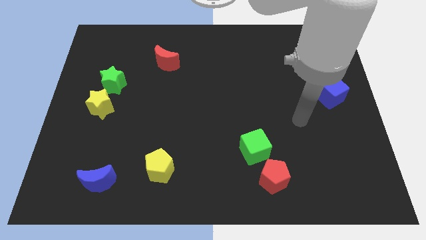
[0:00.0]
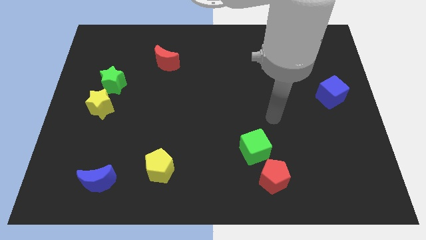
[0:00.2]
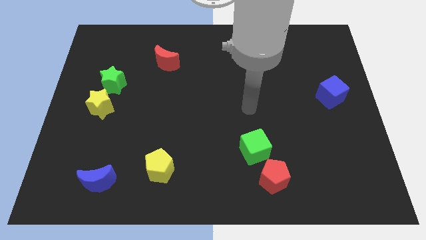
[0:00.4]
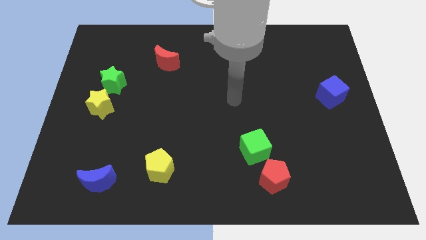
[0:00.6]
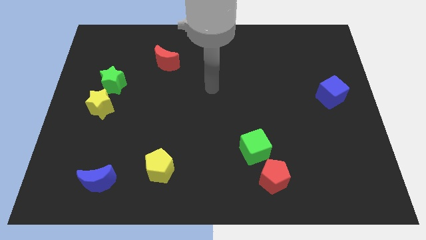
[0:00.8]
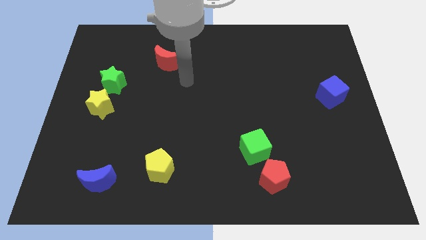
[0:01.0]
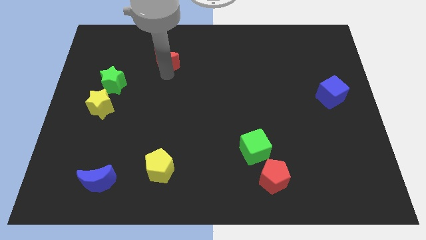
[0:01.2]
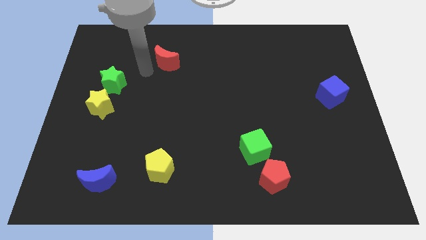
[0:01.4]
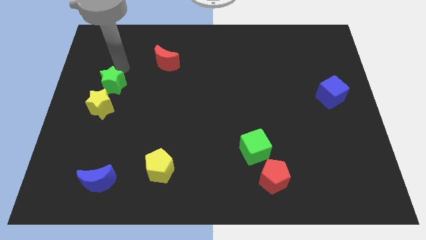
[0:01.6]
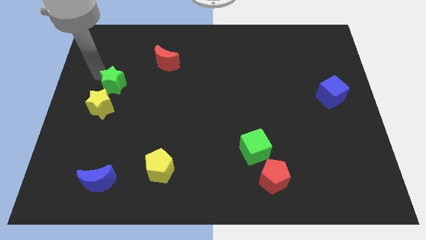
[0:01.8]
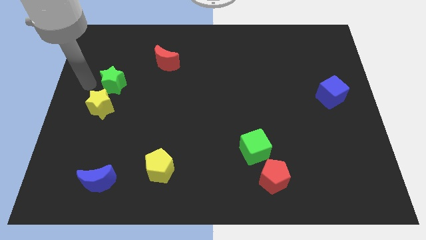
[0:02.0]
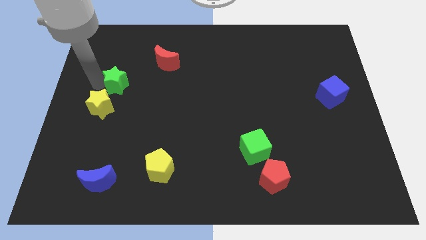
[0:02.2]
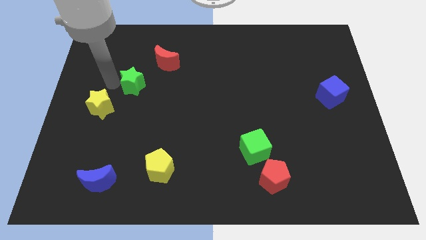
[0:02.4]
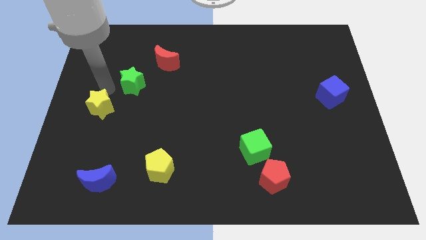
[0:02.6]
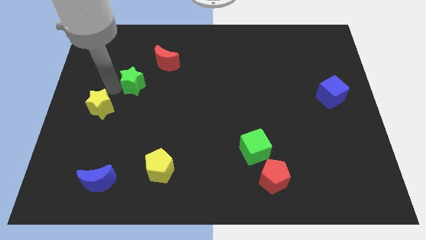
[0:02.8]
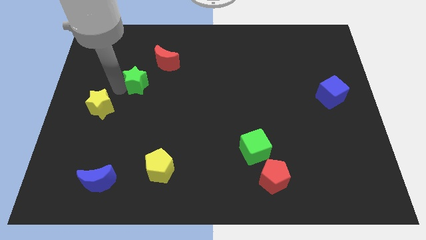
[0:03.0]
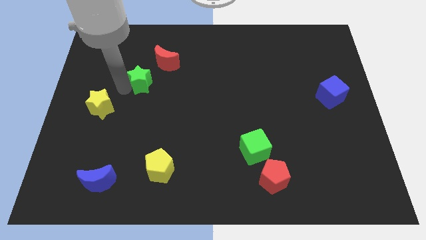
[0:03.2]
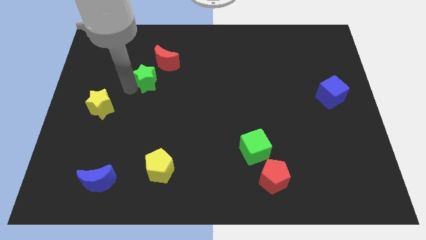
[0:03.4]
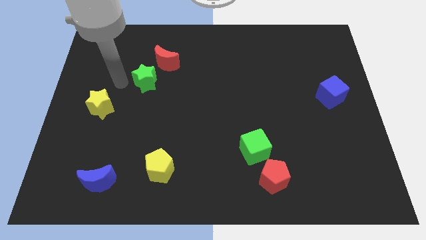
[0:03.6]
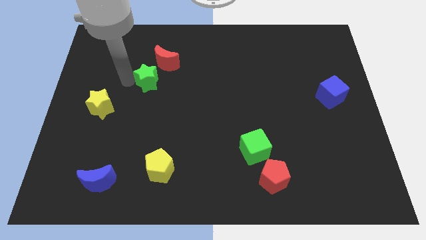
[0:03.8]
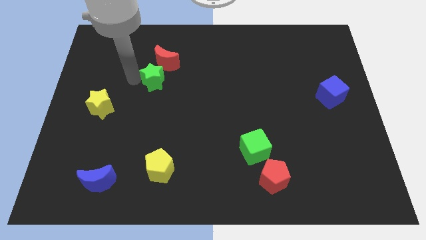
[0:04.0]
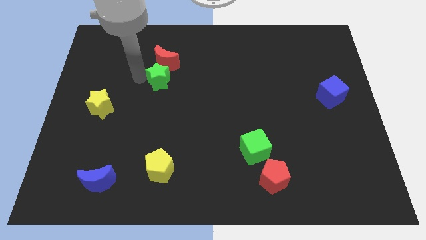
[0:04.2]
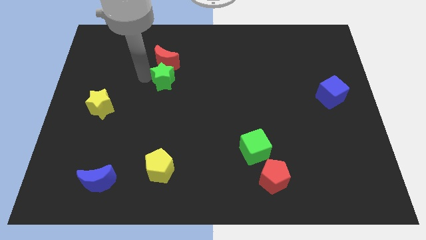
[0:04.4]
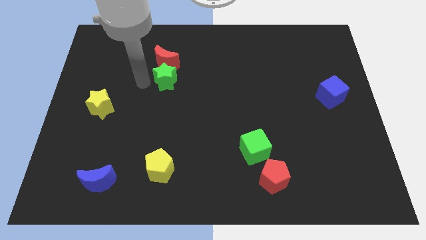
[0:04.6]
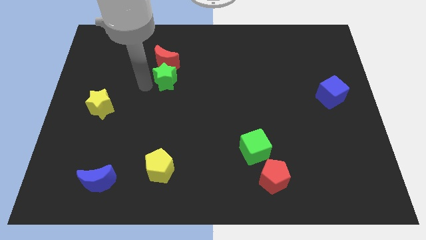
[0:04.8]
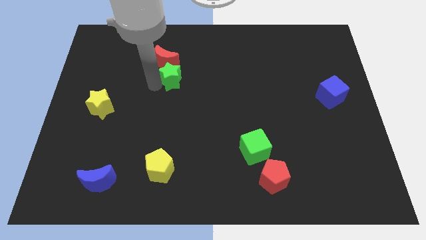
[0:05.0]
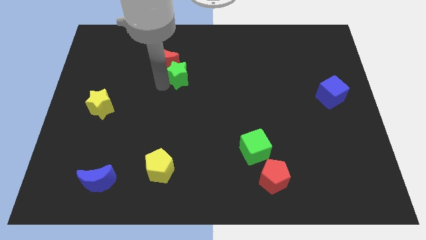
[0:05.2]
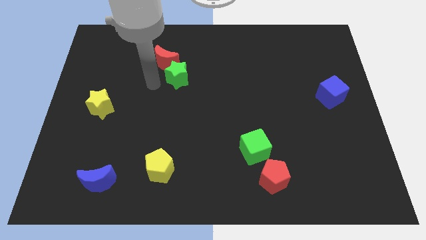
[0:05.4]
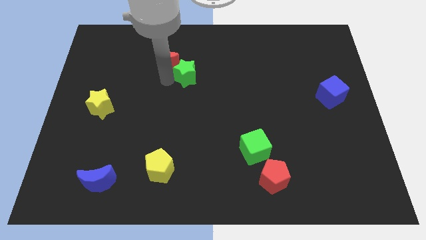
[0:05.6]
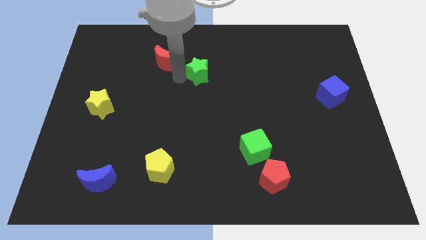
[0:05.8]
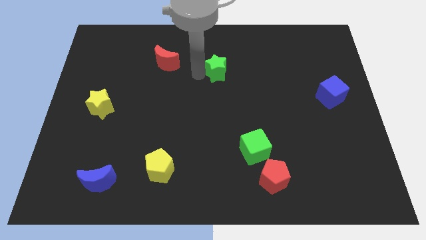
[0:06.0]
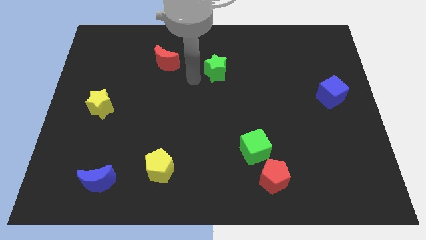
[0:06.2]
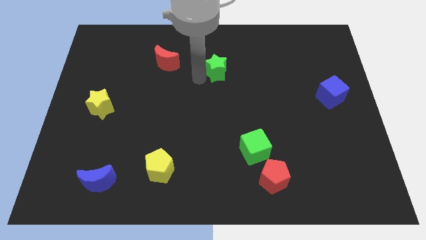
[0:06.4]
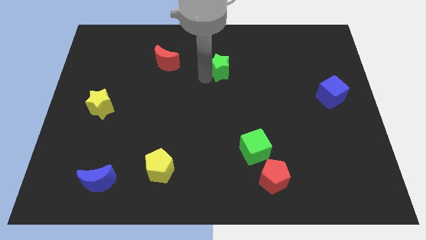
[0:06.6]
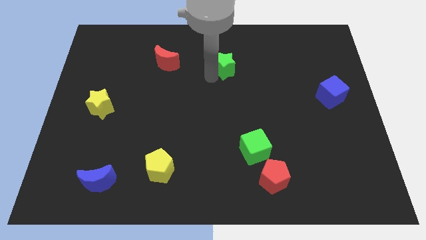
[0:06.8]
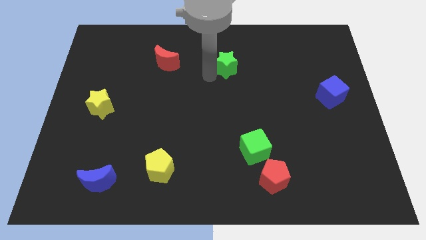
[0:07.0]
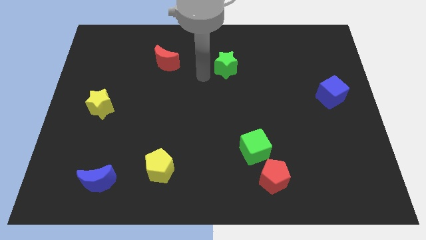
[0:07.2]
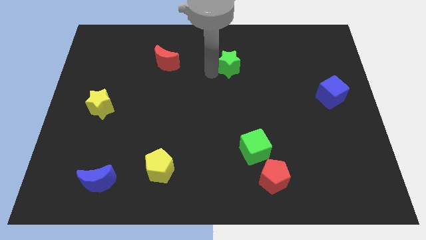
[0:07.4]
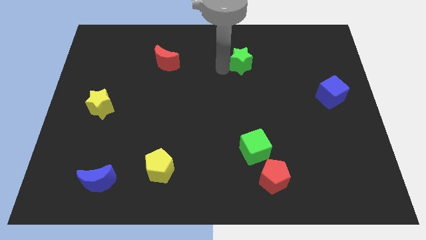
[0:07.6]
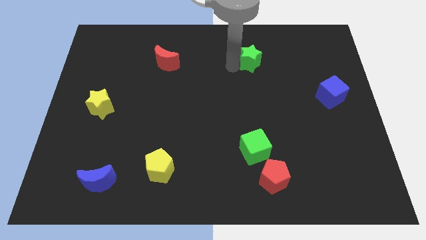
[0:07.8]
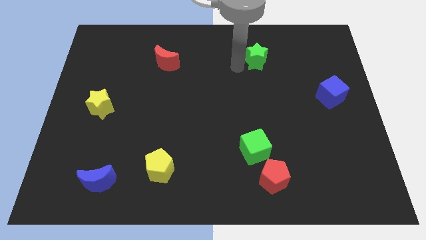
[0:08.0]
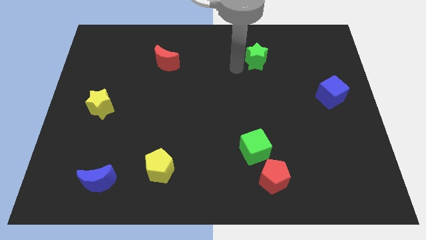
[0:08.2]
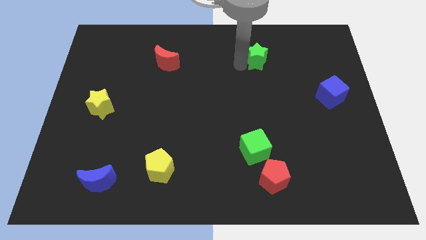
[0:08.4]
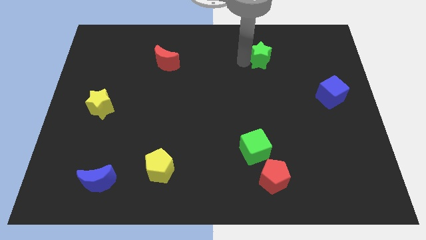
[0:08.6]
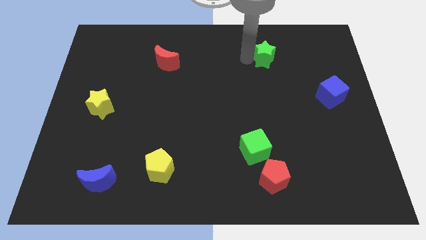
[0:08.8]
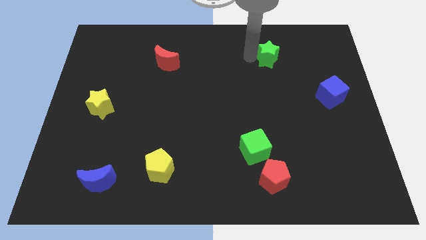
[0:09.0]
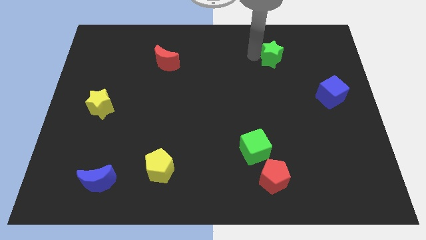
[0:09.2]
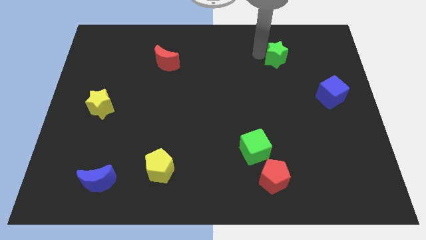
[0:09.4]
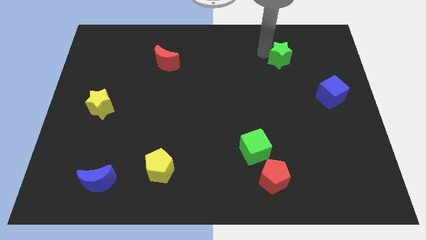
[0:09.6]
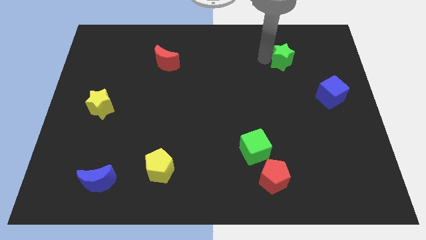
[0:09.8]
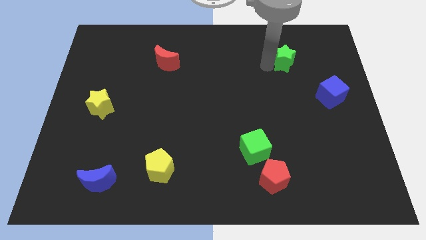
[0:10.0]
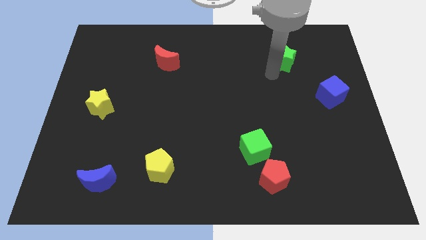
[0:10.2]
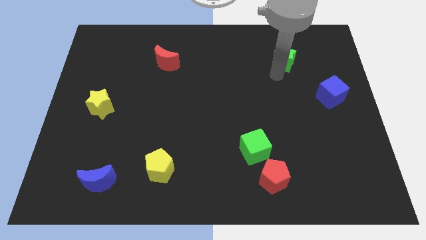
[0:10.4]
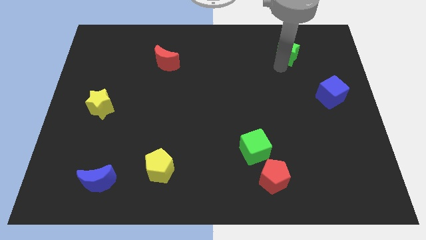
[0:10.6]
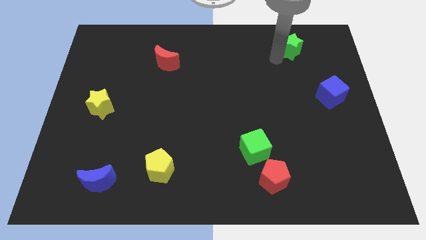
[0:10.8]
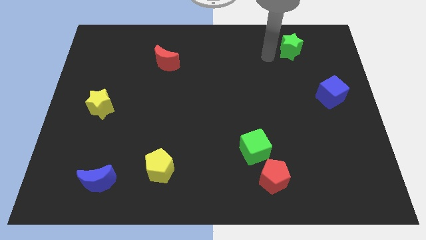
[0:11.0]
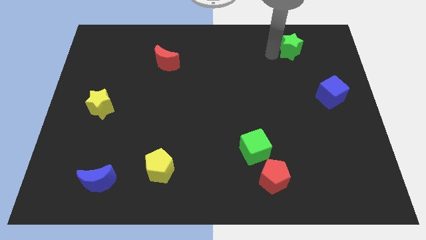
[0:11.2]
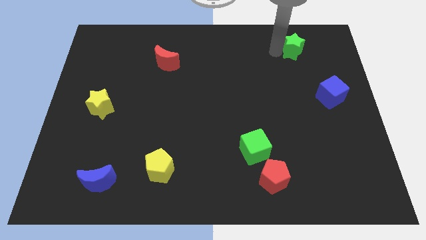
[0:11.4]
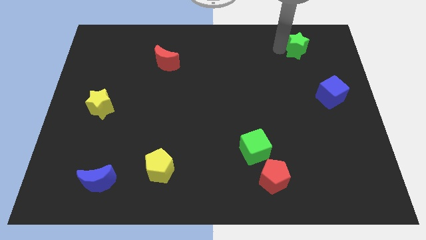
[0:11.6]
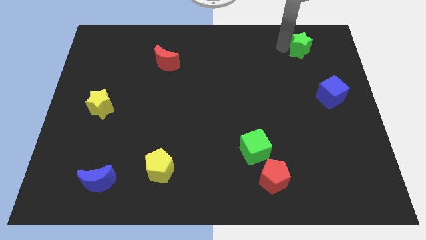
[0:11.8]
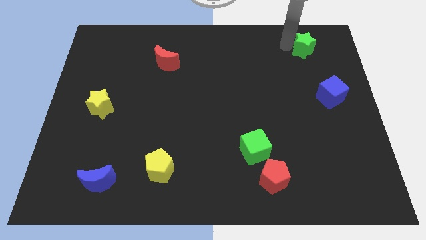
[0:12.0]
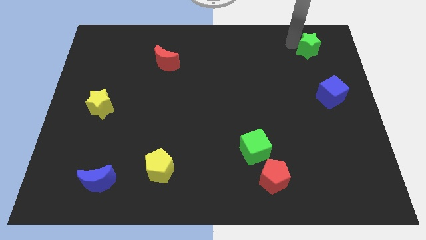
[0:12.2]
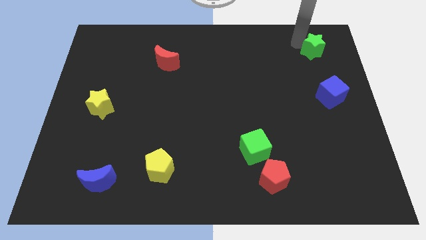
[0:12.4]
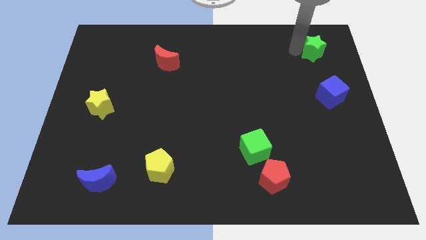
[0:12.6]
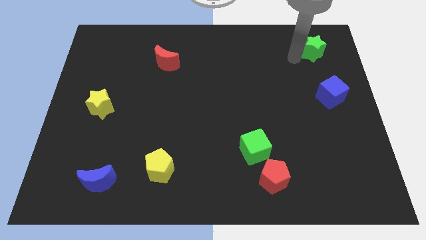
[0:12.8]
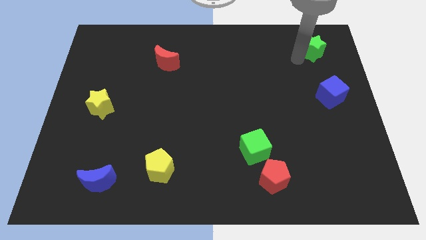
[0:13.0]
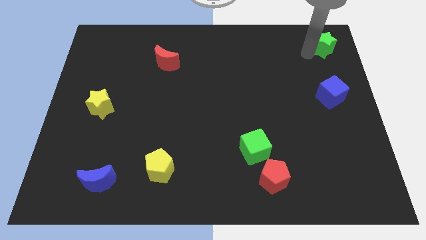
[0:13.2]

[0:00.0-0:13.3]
push the green star to the top right corner
